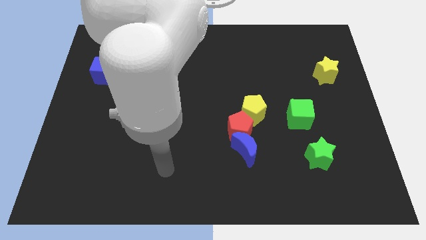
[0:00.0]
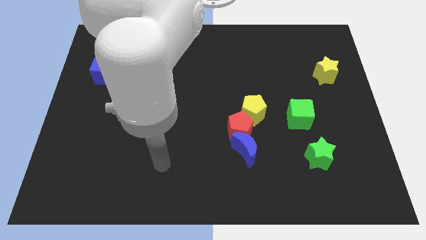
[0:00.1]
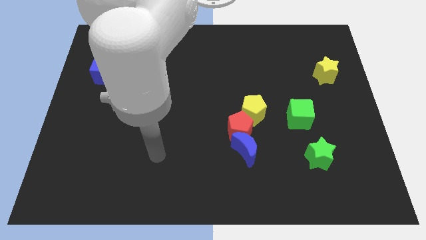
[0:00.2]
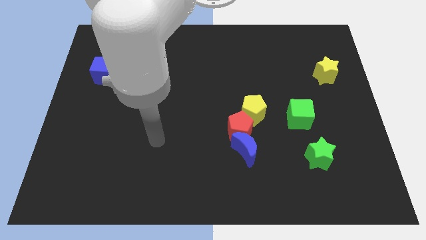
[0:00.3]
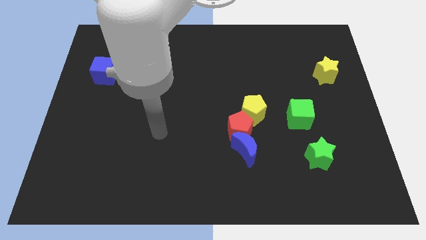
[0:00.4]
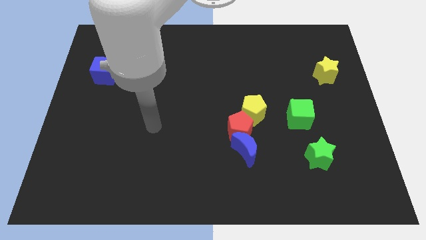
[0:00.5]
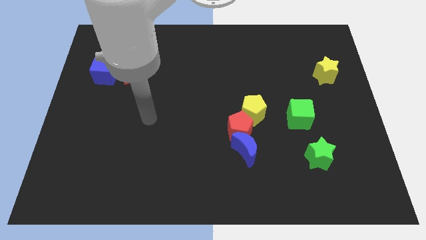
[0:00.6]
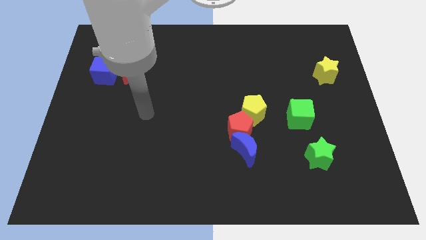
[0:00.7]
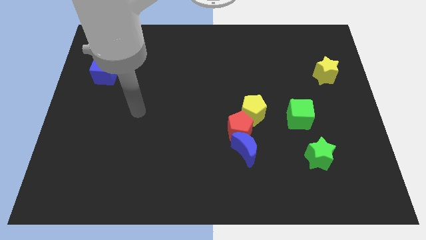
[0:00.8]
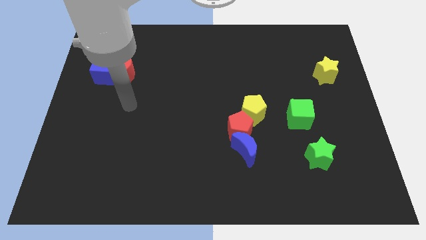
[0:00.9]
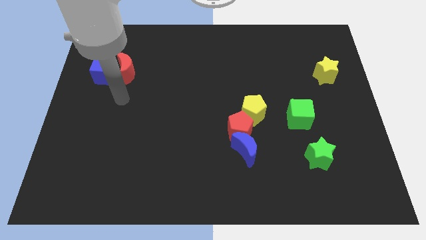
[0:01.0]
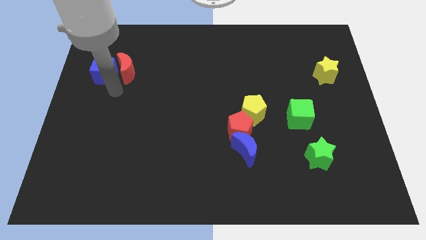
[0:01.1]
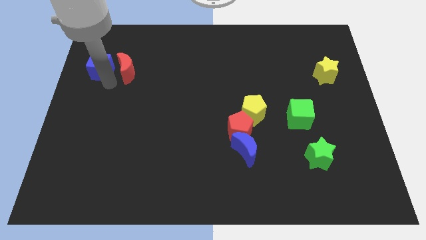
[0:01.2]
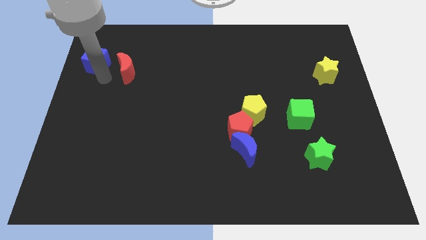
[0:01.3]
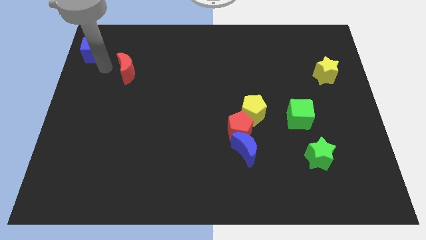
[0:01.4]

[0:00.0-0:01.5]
pull the red moon apart from the blue cube

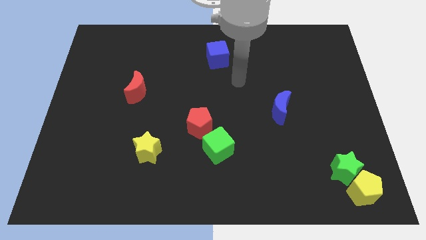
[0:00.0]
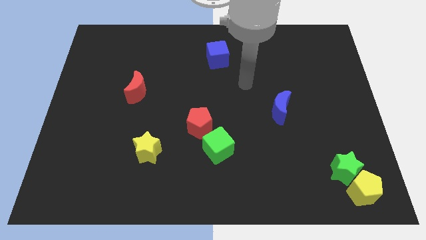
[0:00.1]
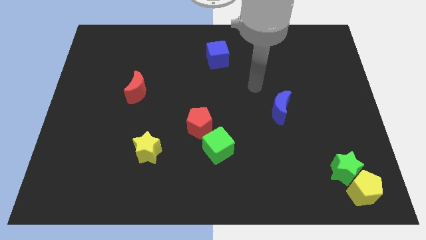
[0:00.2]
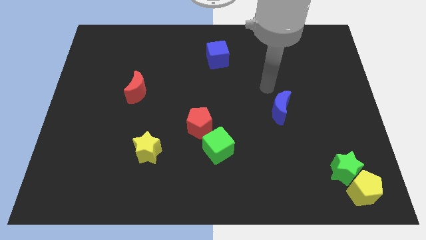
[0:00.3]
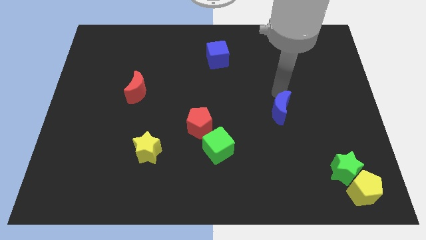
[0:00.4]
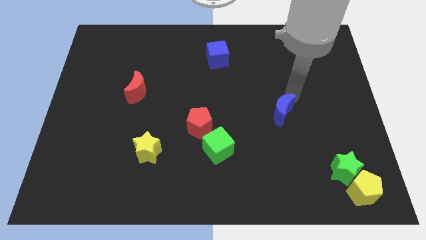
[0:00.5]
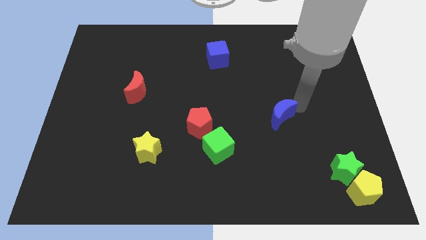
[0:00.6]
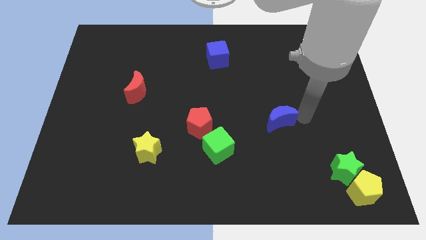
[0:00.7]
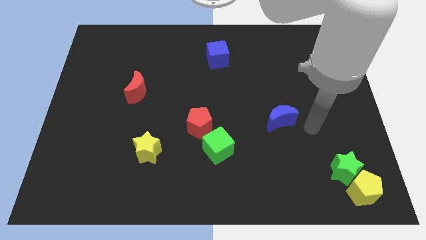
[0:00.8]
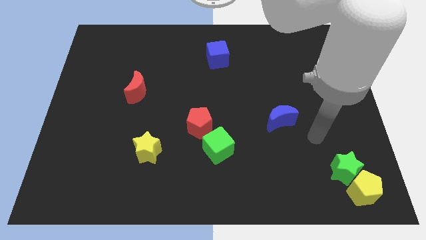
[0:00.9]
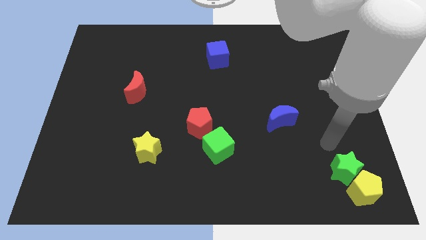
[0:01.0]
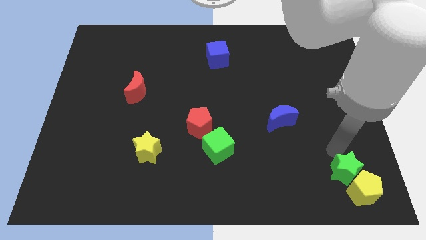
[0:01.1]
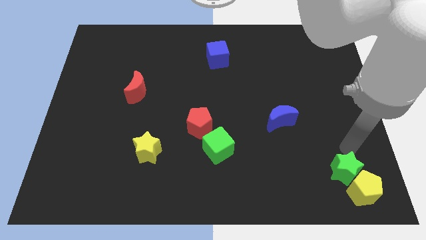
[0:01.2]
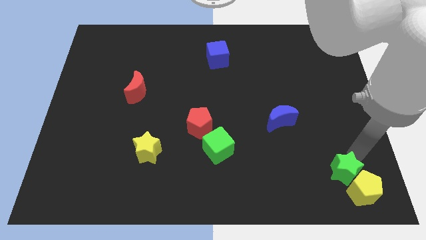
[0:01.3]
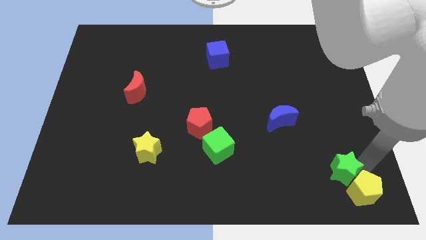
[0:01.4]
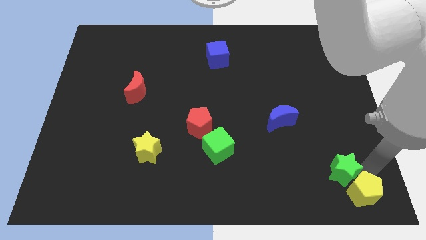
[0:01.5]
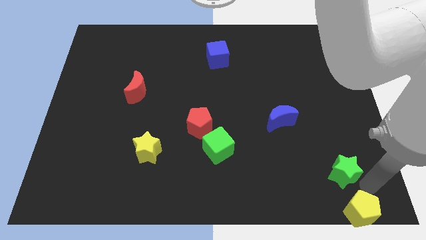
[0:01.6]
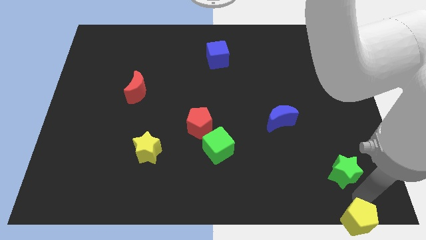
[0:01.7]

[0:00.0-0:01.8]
separate the green star from the yellow pentagon

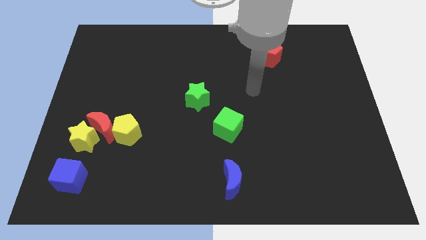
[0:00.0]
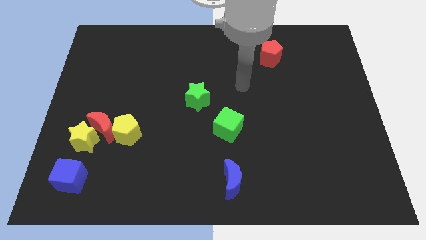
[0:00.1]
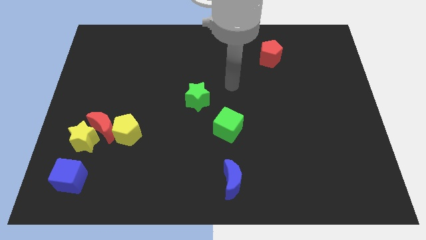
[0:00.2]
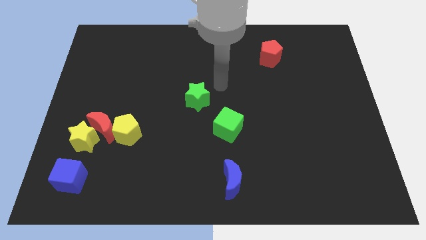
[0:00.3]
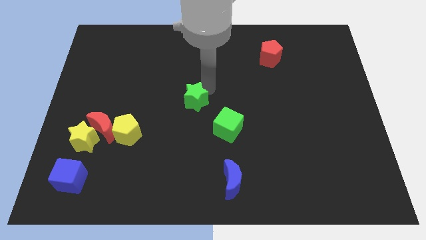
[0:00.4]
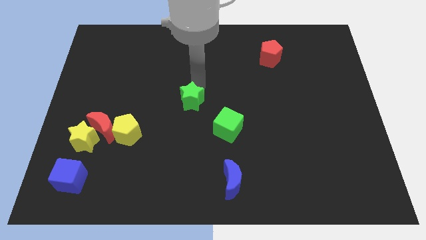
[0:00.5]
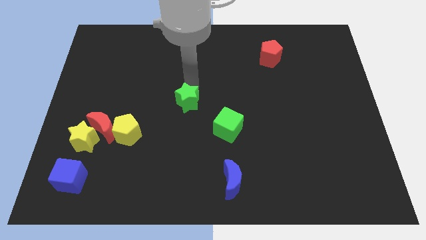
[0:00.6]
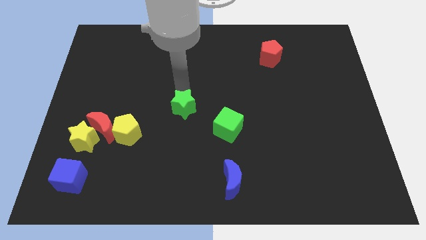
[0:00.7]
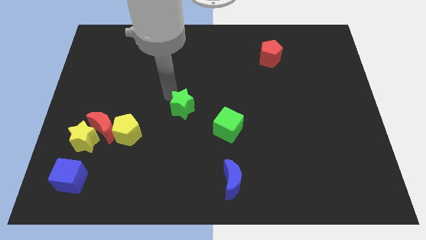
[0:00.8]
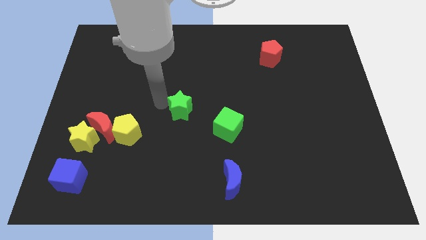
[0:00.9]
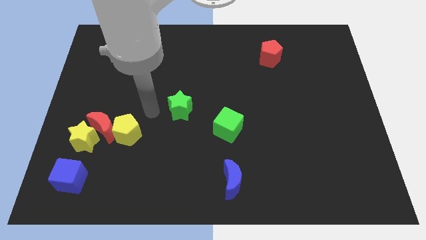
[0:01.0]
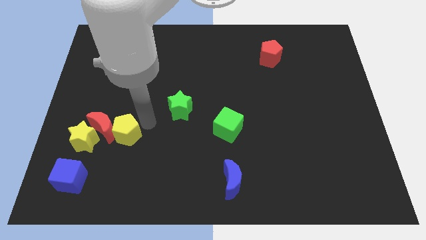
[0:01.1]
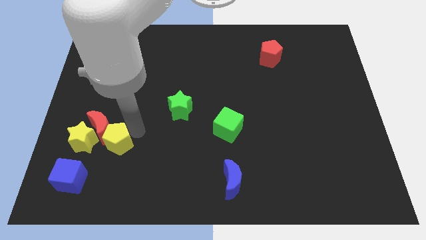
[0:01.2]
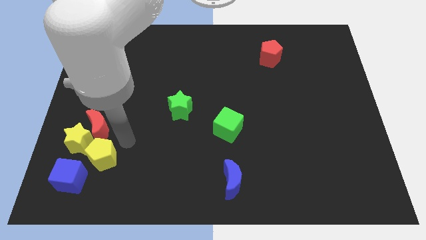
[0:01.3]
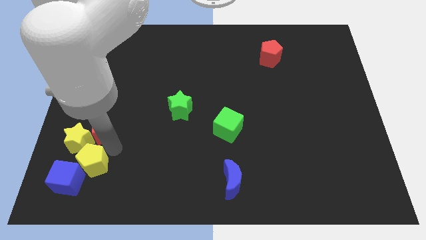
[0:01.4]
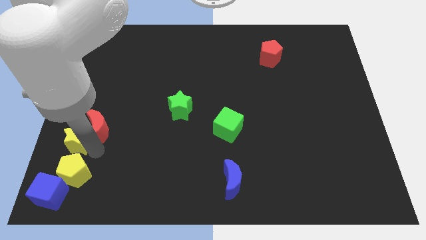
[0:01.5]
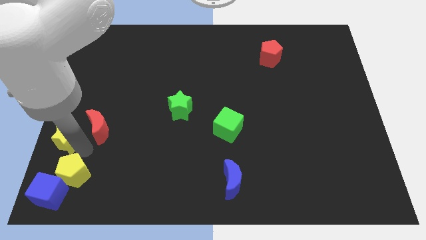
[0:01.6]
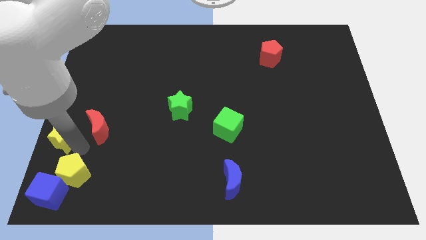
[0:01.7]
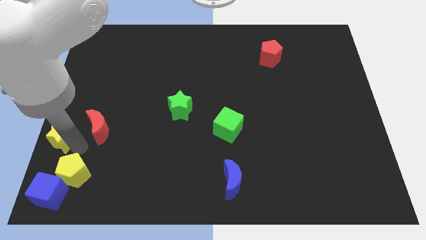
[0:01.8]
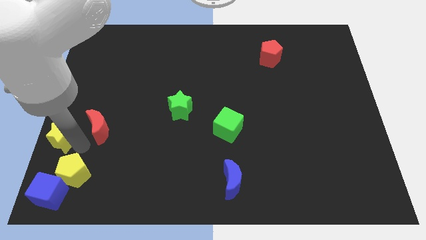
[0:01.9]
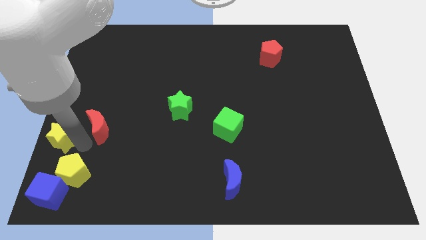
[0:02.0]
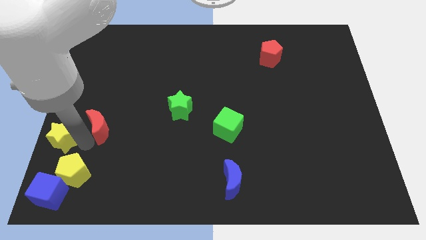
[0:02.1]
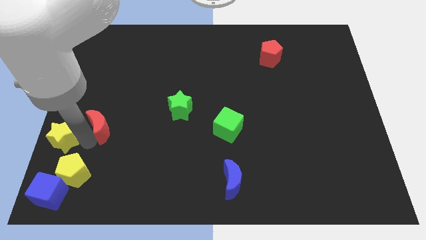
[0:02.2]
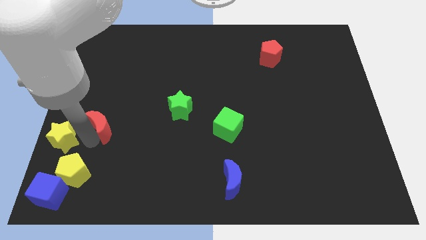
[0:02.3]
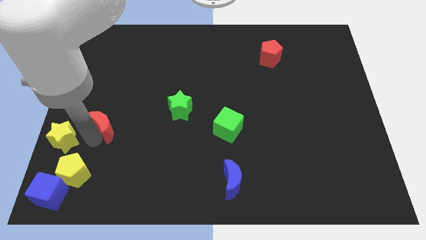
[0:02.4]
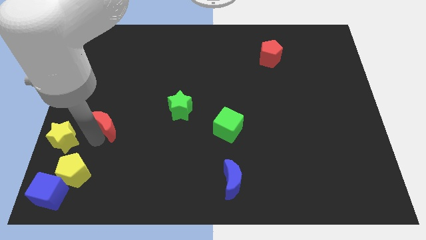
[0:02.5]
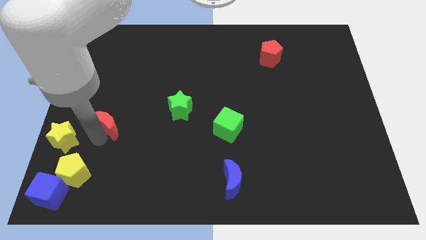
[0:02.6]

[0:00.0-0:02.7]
pull the red moon apart from the yellow star and yellow pentagon

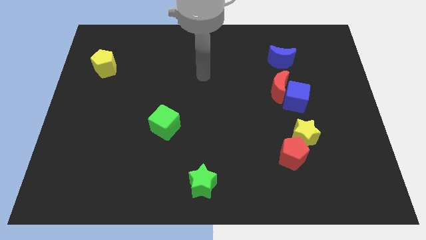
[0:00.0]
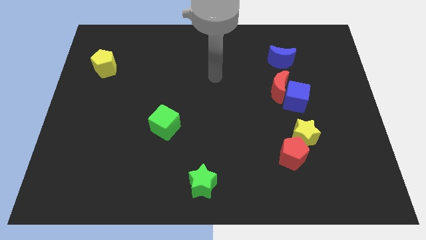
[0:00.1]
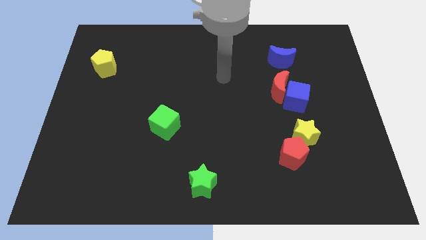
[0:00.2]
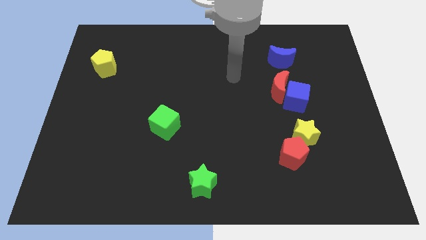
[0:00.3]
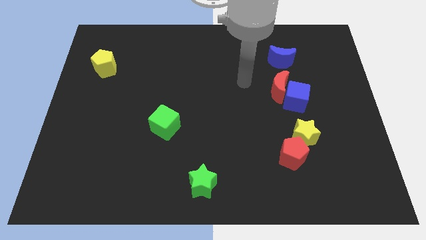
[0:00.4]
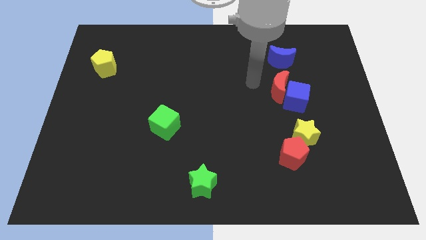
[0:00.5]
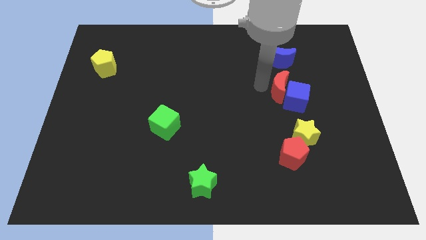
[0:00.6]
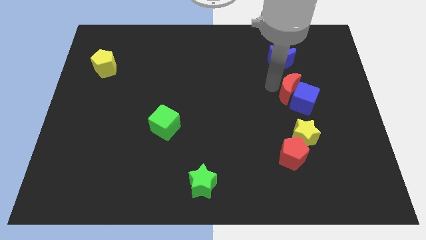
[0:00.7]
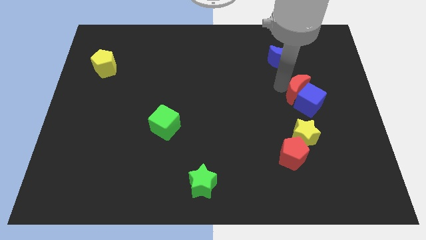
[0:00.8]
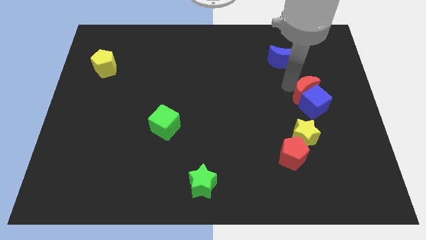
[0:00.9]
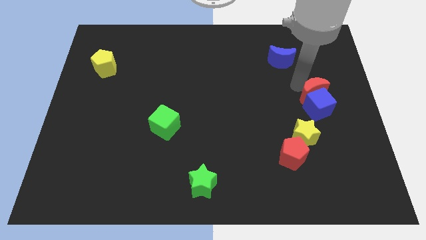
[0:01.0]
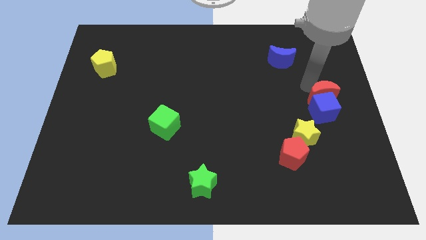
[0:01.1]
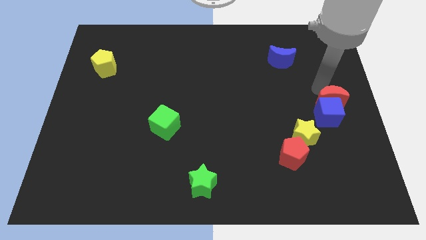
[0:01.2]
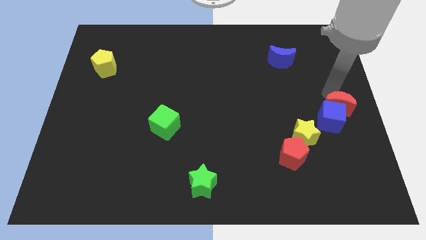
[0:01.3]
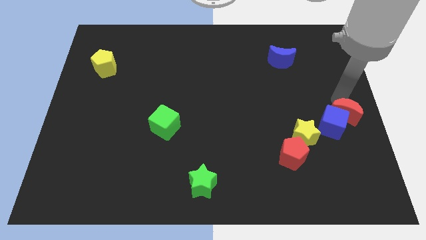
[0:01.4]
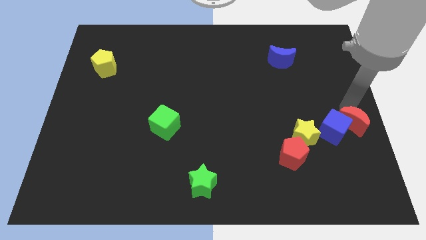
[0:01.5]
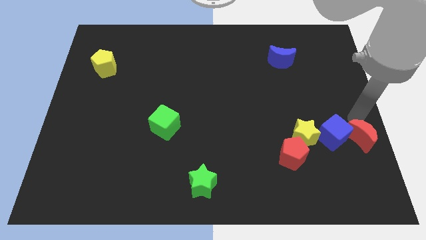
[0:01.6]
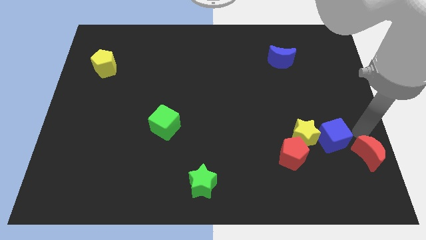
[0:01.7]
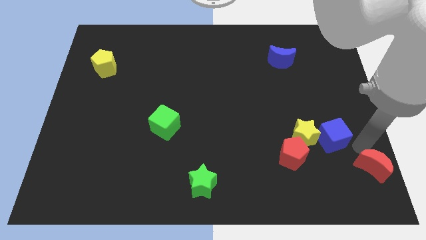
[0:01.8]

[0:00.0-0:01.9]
separate the blue cube from the red moon

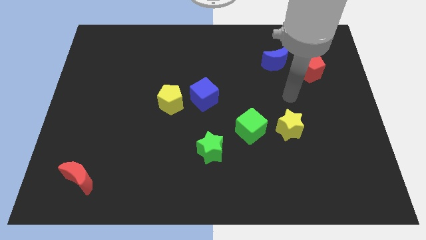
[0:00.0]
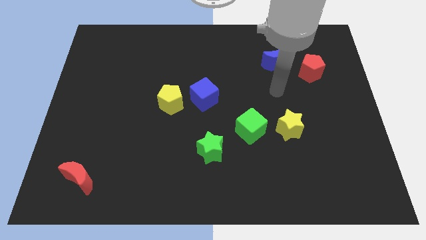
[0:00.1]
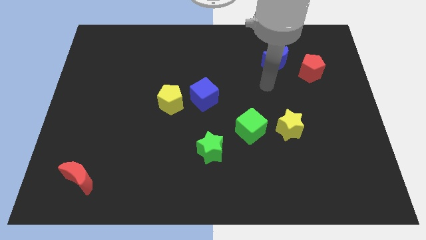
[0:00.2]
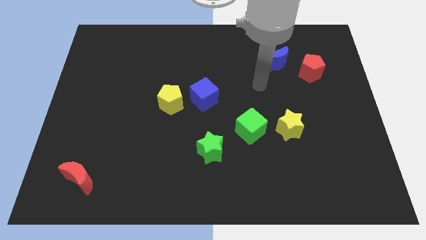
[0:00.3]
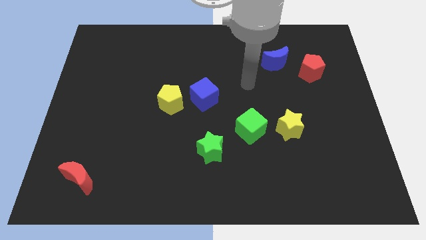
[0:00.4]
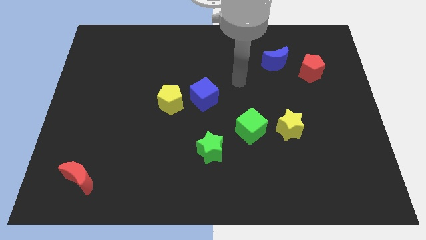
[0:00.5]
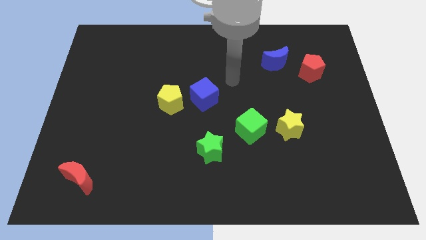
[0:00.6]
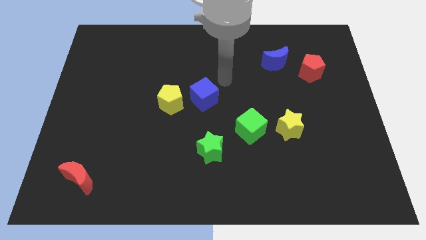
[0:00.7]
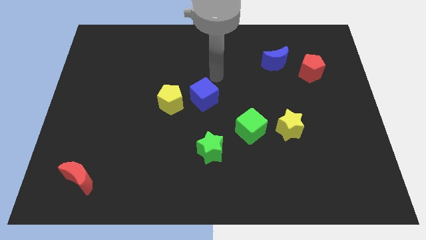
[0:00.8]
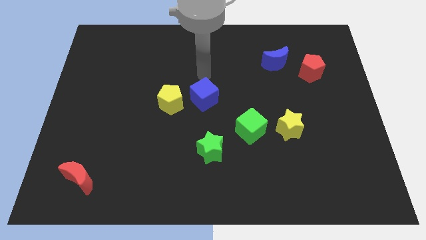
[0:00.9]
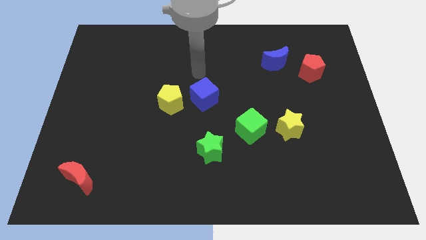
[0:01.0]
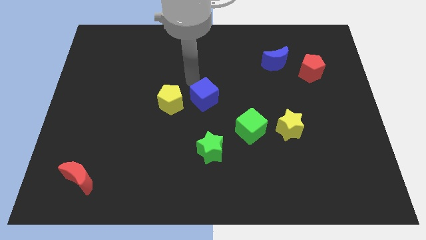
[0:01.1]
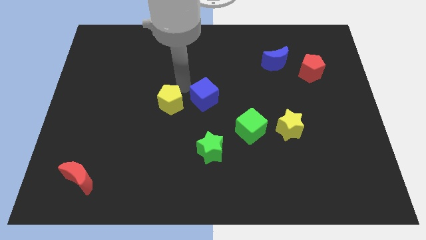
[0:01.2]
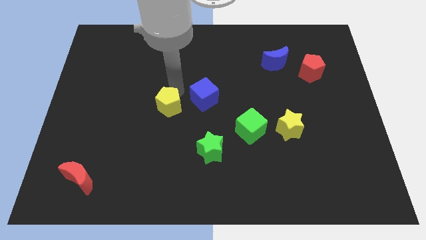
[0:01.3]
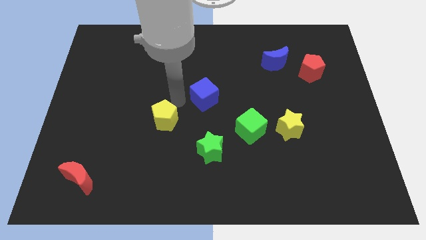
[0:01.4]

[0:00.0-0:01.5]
move the blue cube away from the yellow pentagon
